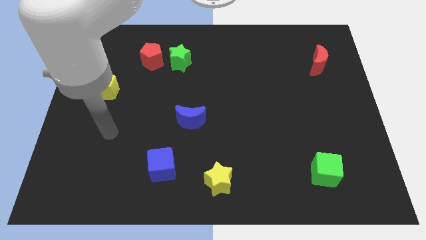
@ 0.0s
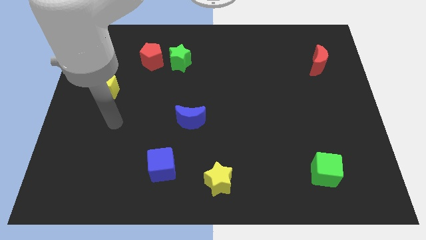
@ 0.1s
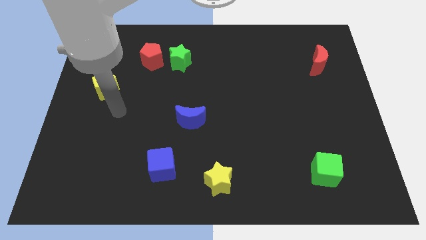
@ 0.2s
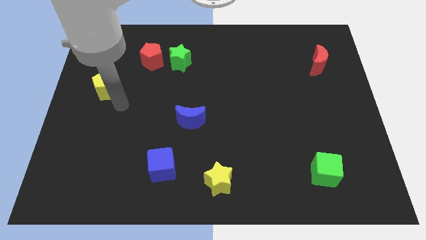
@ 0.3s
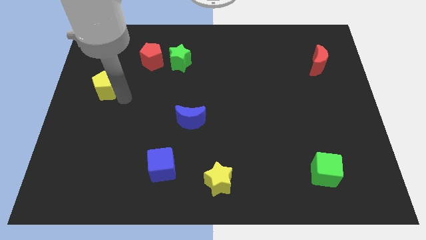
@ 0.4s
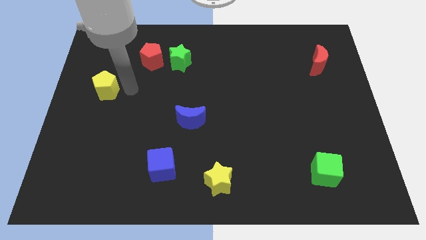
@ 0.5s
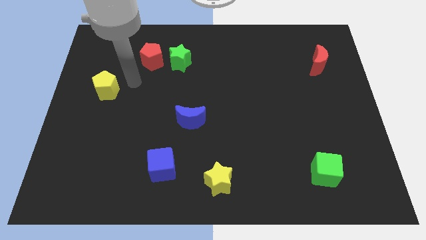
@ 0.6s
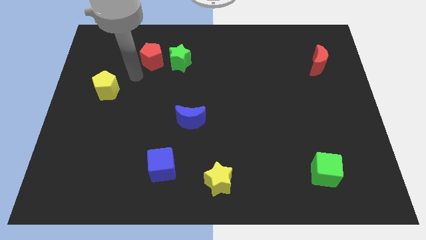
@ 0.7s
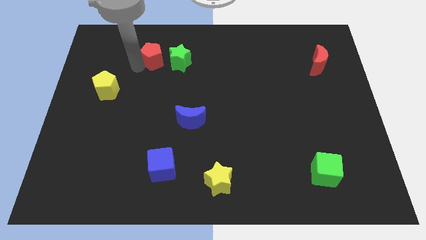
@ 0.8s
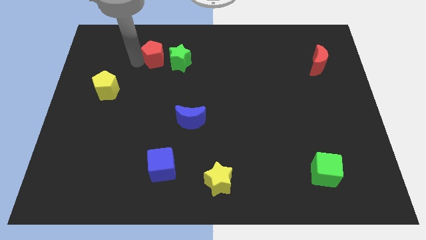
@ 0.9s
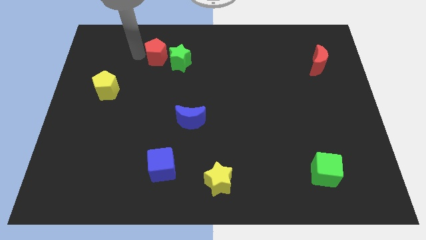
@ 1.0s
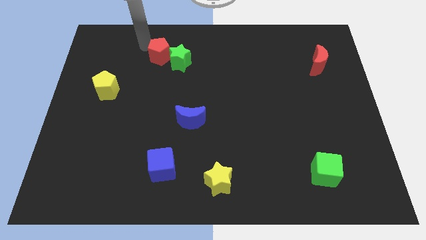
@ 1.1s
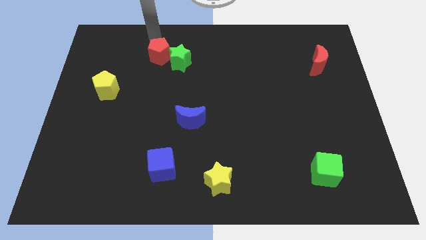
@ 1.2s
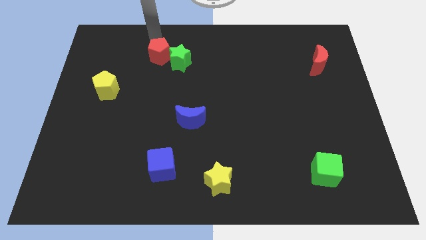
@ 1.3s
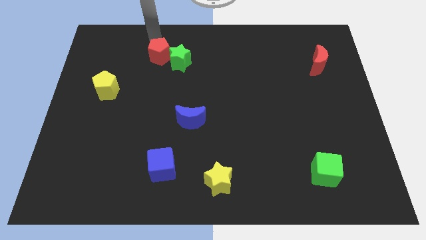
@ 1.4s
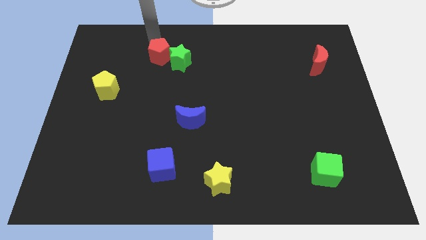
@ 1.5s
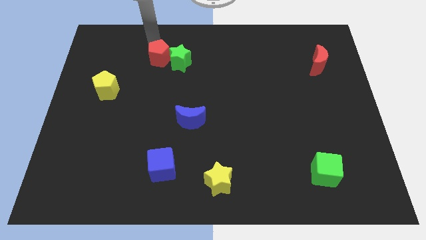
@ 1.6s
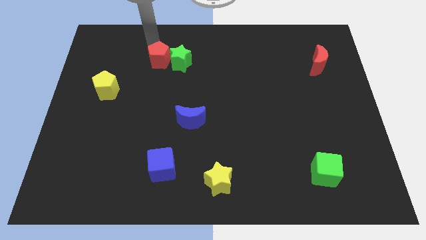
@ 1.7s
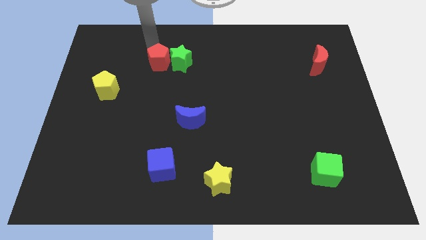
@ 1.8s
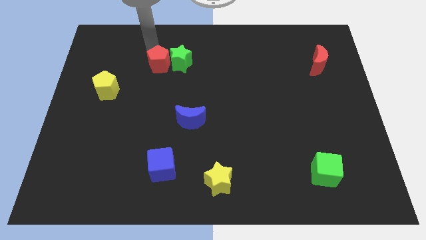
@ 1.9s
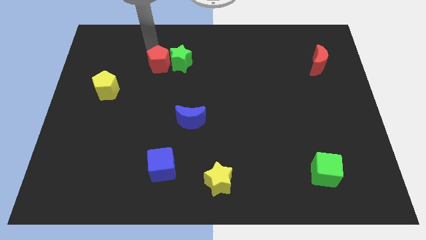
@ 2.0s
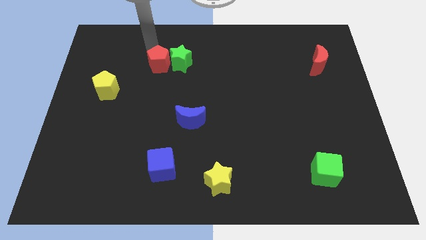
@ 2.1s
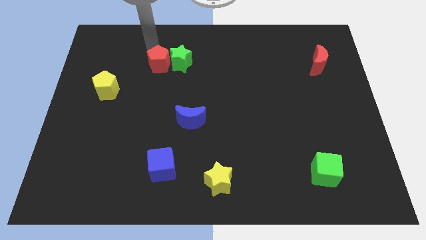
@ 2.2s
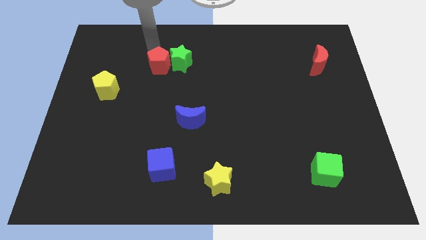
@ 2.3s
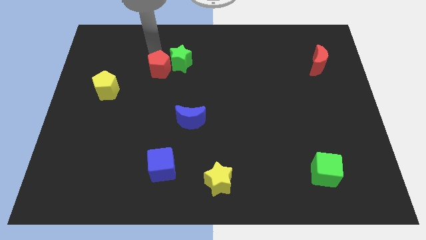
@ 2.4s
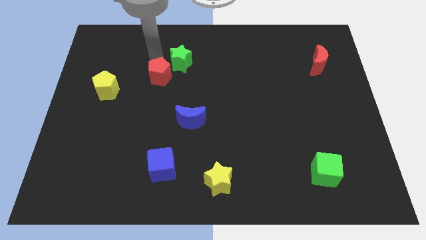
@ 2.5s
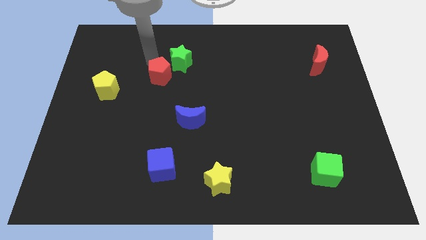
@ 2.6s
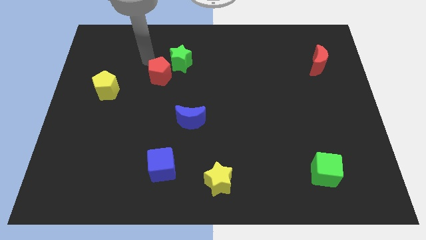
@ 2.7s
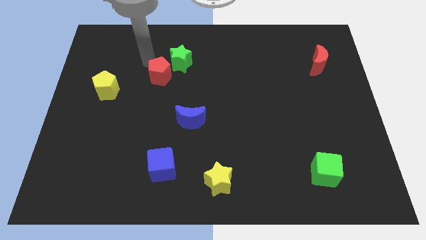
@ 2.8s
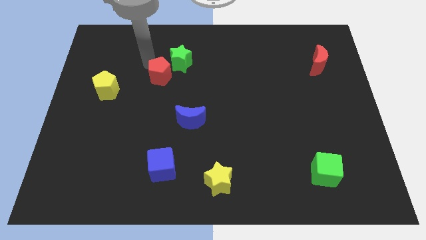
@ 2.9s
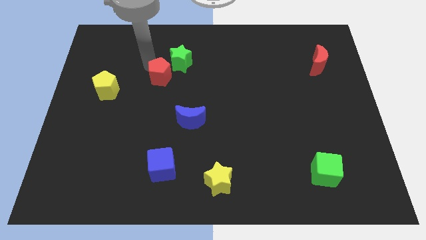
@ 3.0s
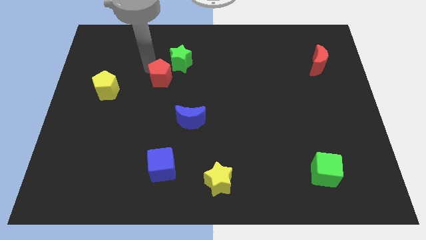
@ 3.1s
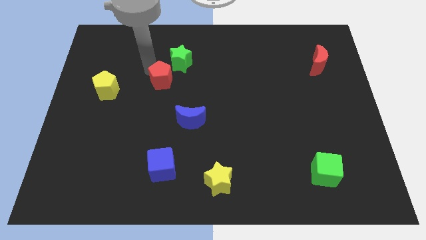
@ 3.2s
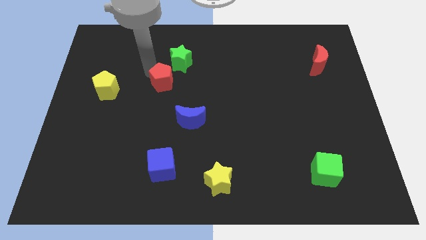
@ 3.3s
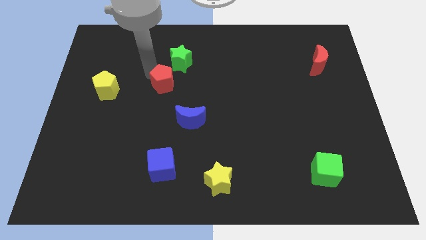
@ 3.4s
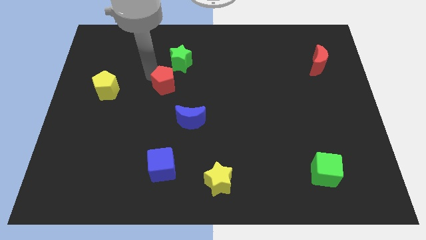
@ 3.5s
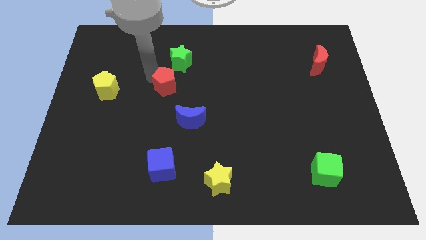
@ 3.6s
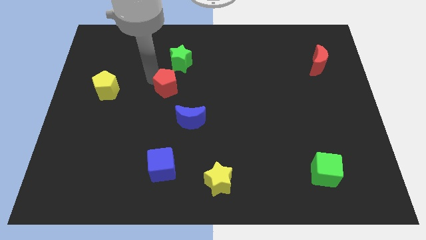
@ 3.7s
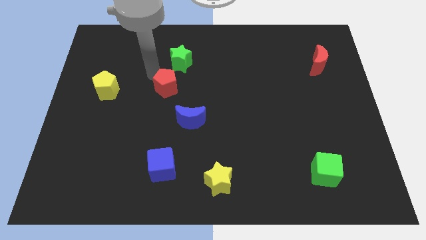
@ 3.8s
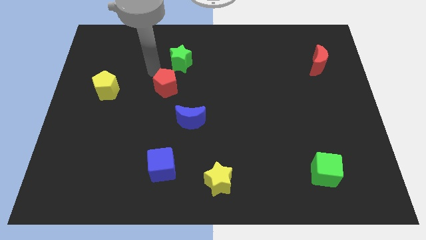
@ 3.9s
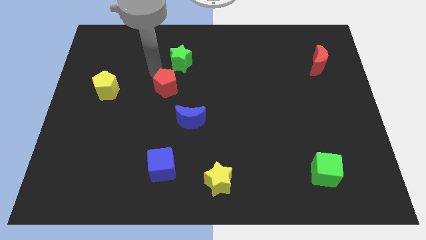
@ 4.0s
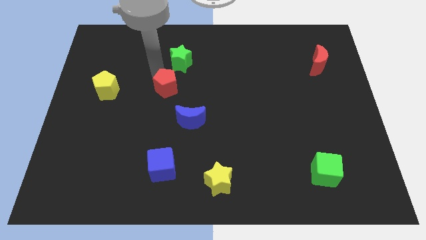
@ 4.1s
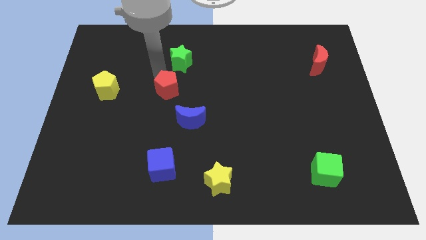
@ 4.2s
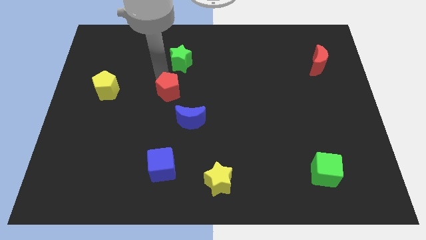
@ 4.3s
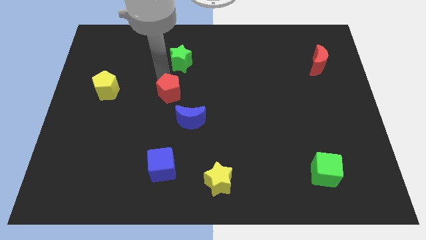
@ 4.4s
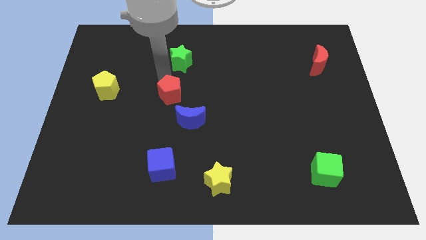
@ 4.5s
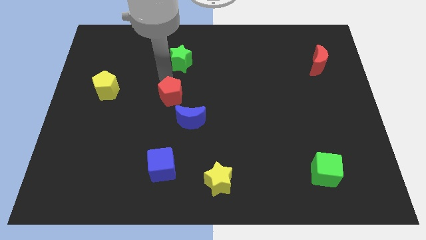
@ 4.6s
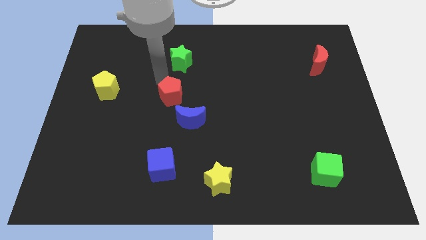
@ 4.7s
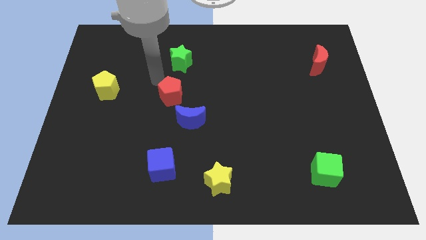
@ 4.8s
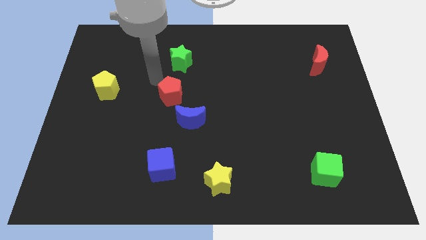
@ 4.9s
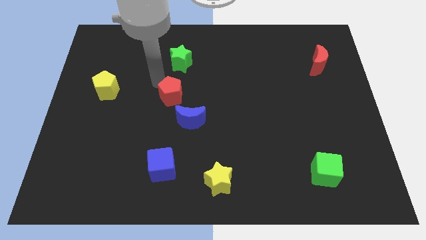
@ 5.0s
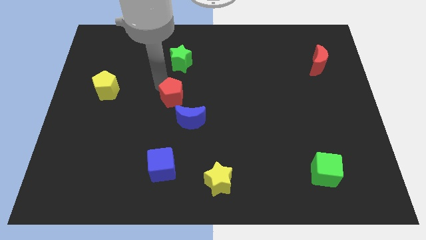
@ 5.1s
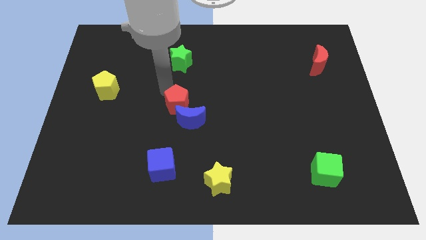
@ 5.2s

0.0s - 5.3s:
move the red pentagon towards the blue moon

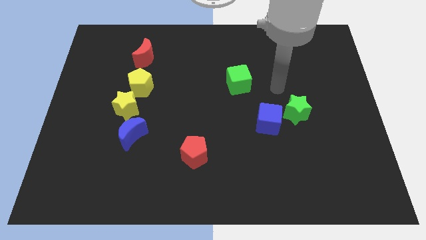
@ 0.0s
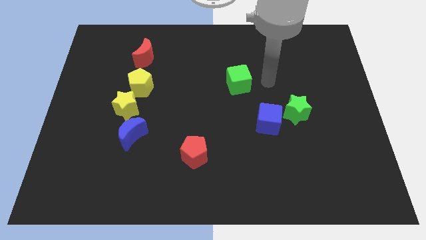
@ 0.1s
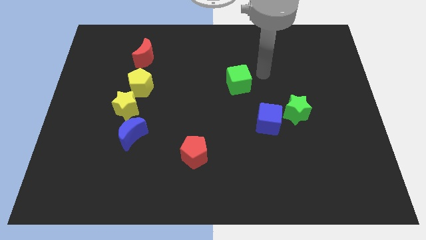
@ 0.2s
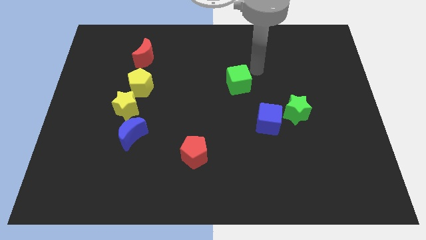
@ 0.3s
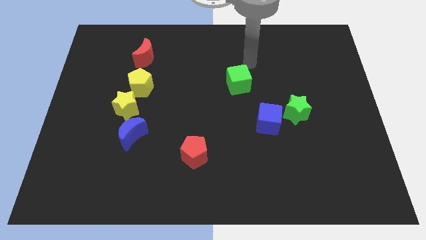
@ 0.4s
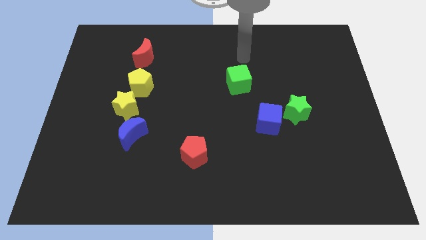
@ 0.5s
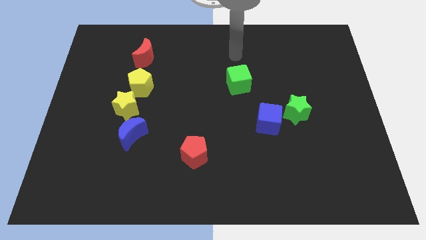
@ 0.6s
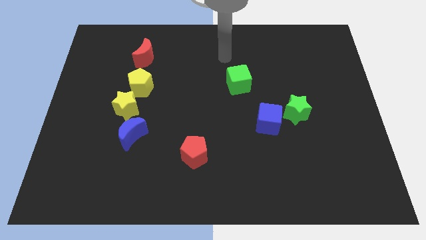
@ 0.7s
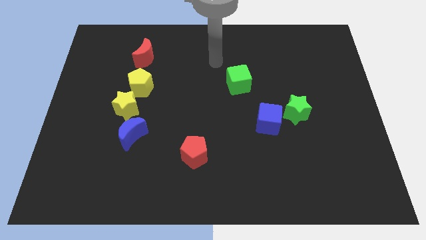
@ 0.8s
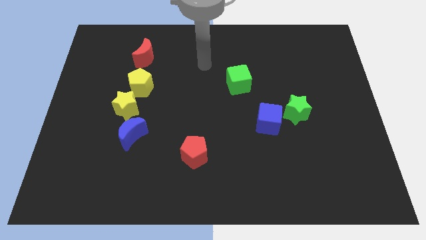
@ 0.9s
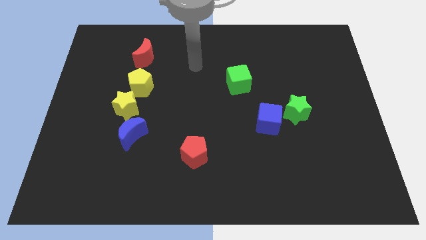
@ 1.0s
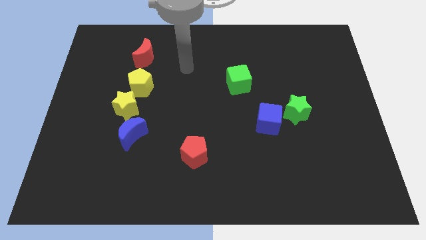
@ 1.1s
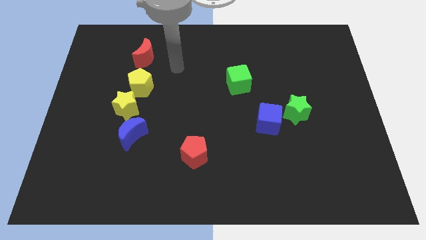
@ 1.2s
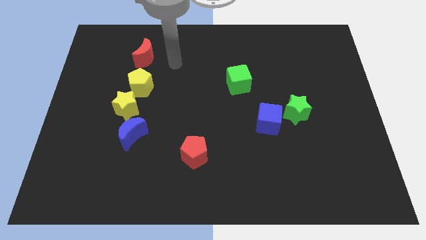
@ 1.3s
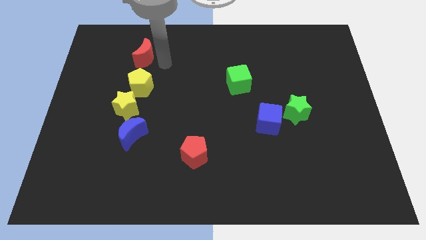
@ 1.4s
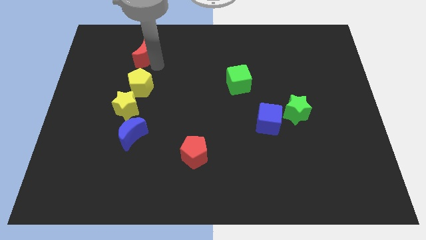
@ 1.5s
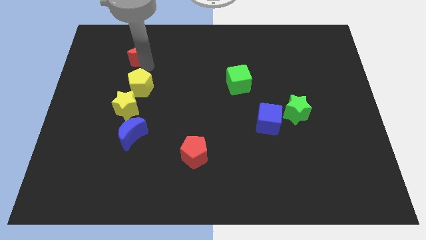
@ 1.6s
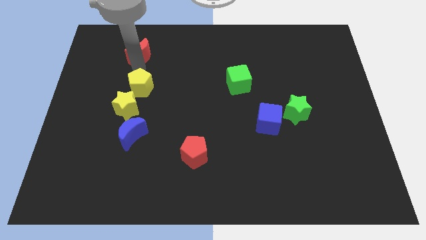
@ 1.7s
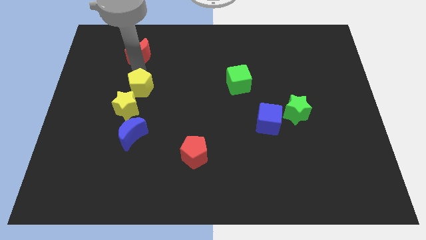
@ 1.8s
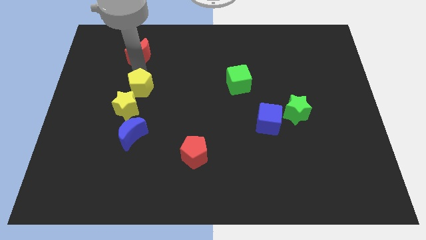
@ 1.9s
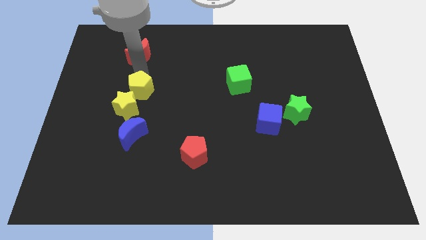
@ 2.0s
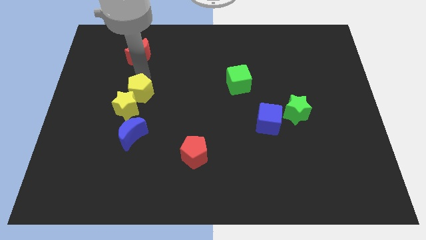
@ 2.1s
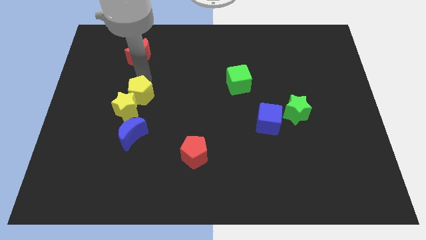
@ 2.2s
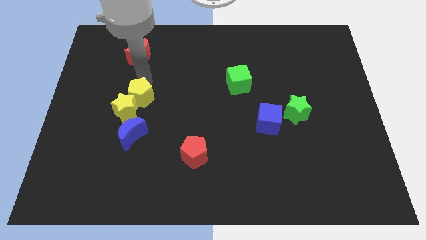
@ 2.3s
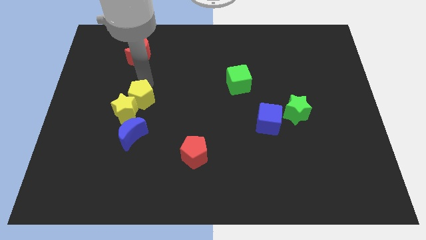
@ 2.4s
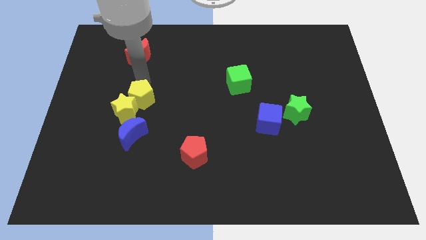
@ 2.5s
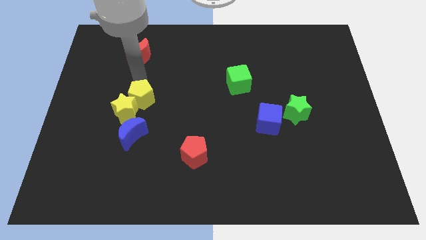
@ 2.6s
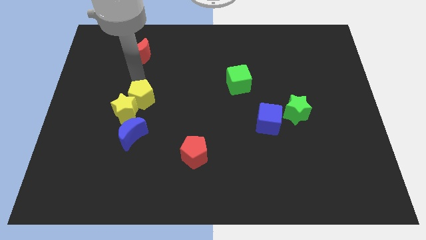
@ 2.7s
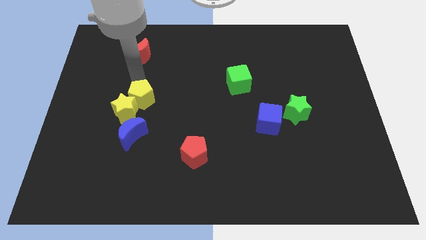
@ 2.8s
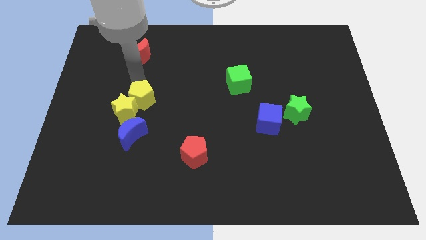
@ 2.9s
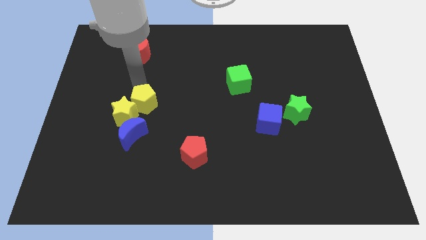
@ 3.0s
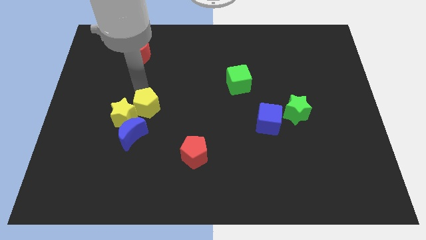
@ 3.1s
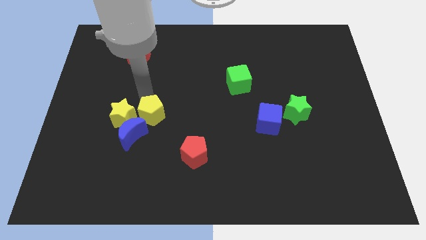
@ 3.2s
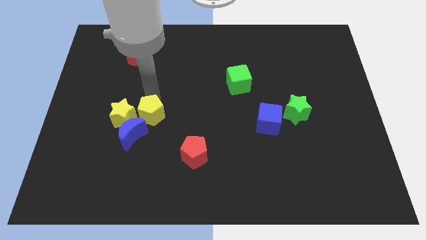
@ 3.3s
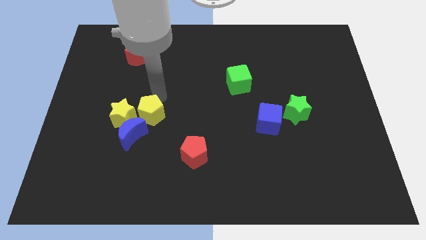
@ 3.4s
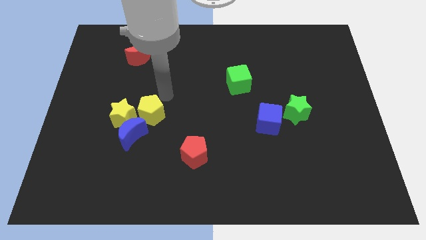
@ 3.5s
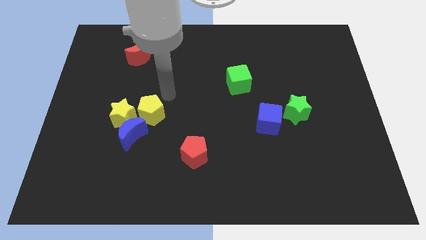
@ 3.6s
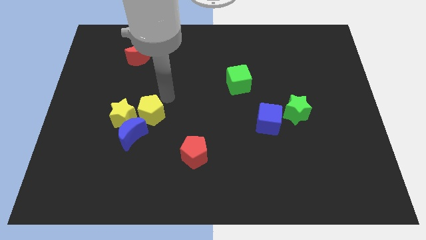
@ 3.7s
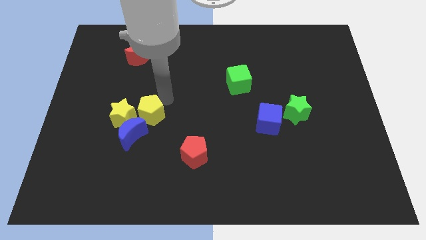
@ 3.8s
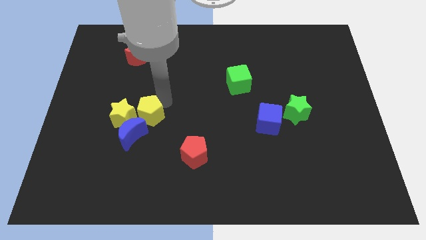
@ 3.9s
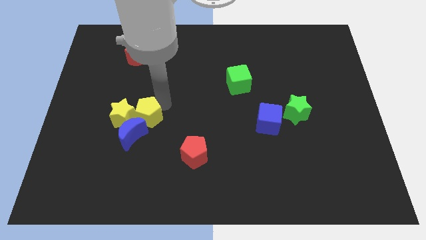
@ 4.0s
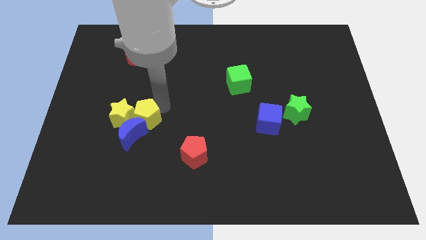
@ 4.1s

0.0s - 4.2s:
put the yellow pentagon next to the blue moon
